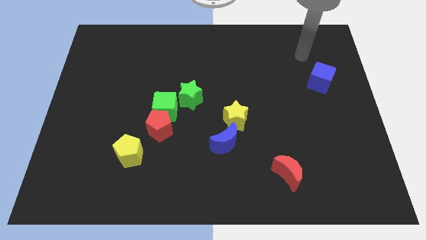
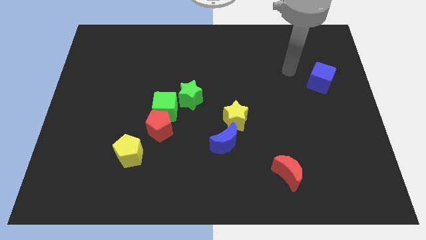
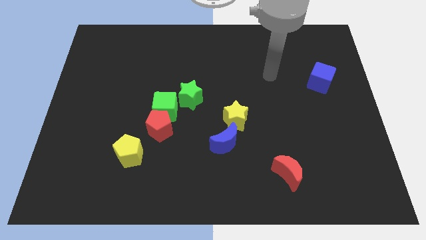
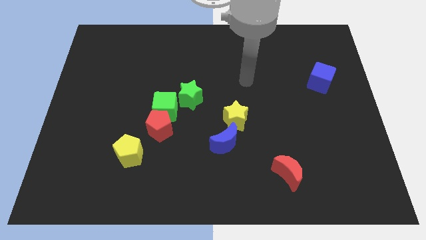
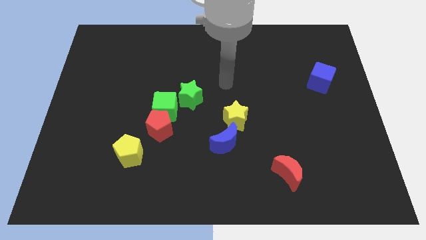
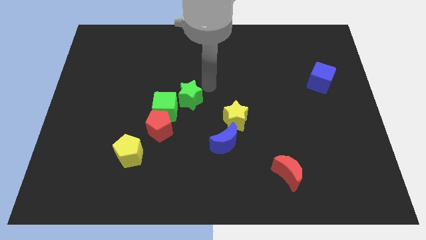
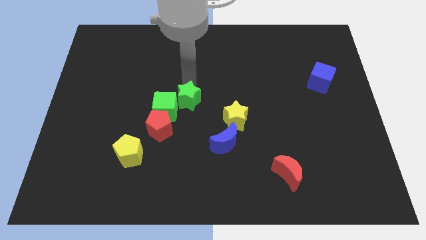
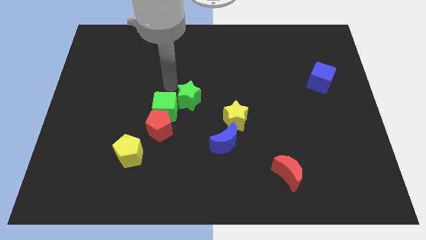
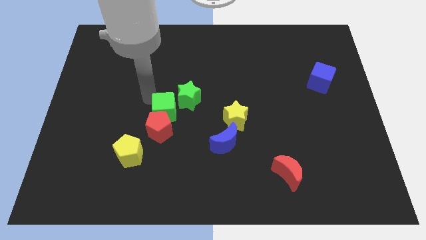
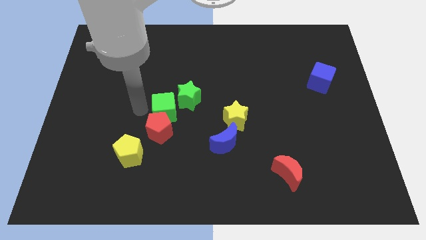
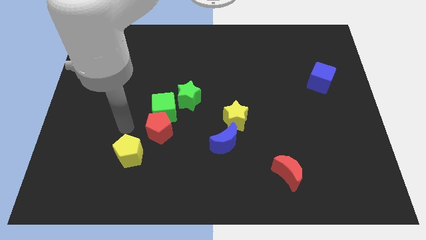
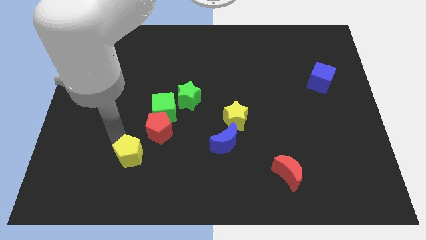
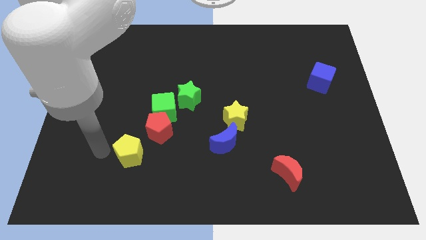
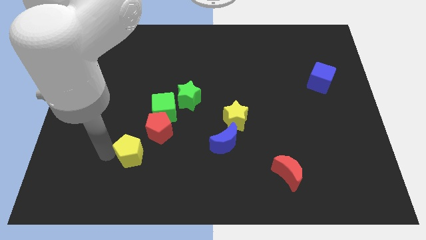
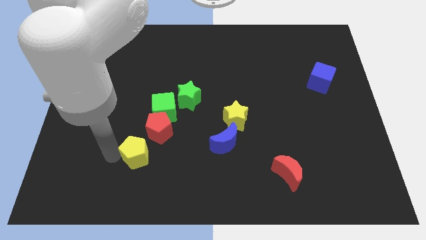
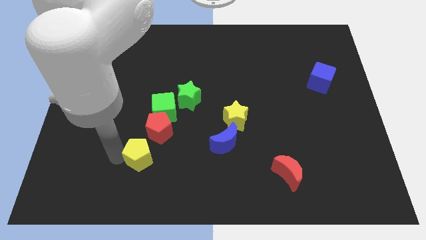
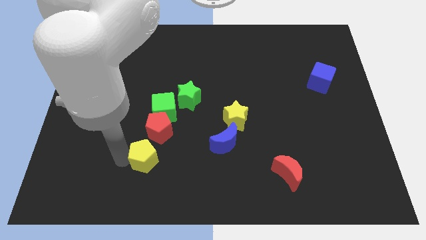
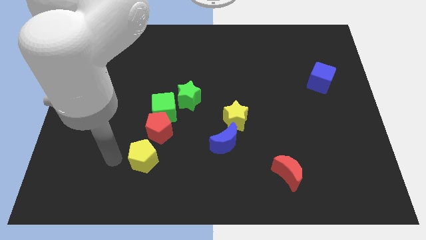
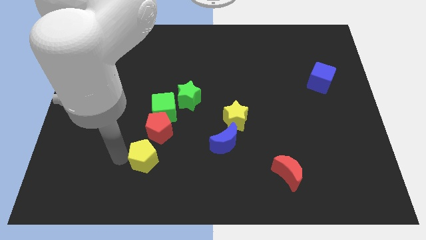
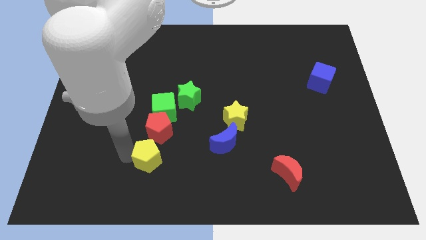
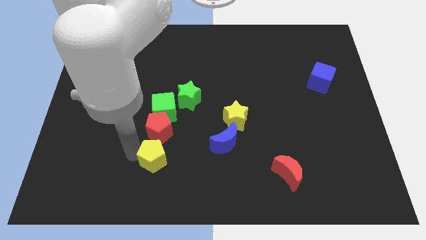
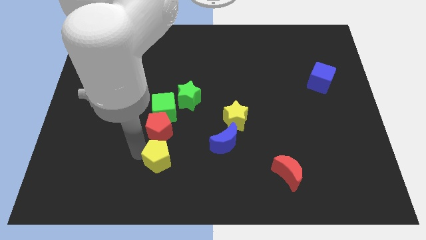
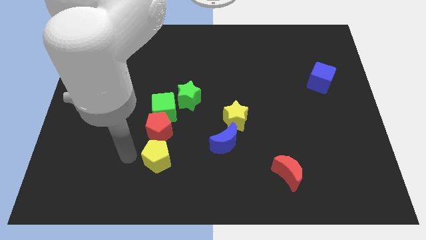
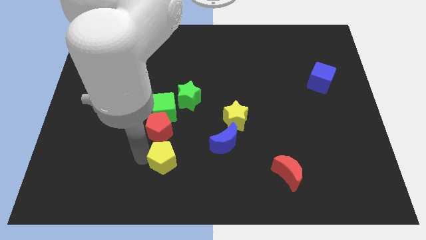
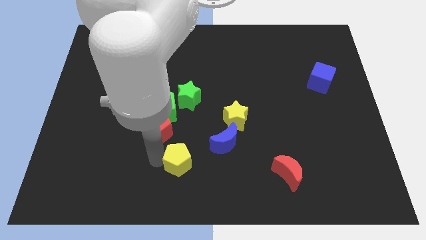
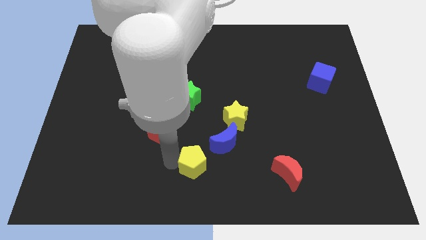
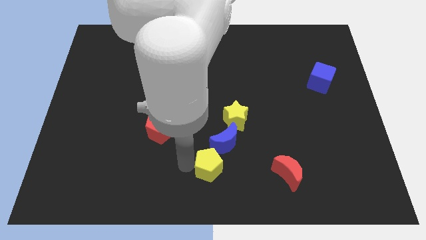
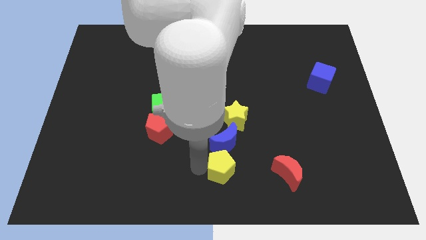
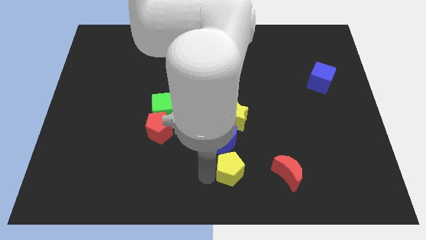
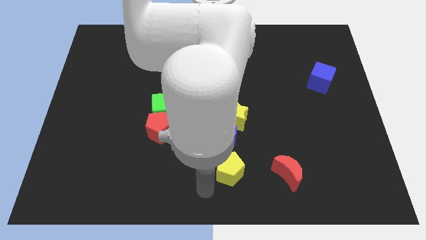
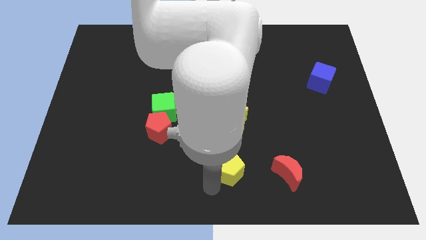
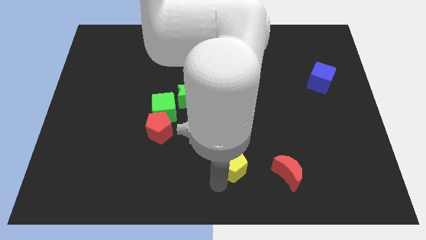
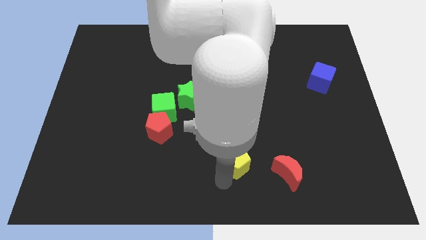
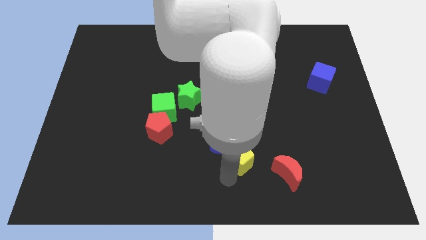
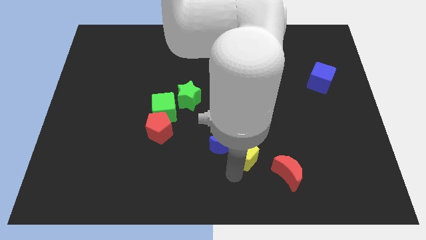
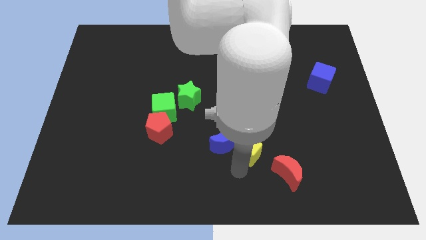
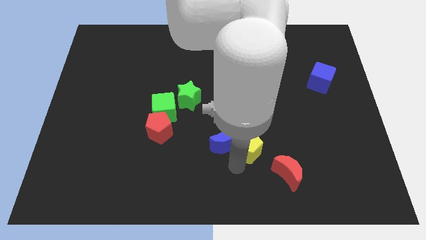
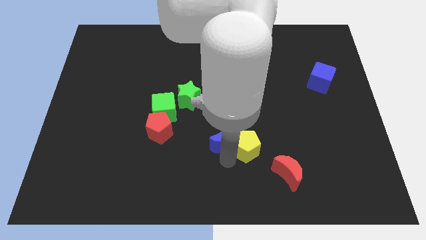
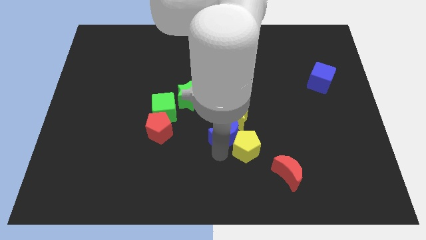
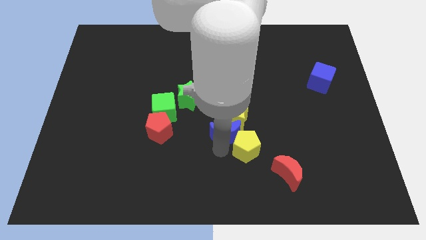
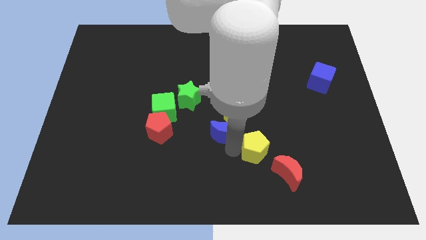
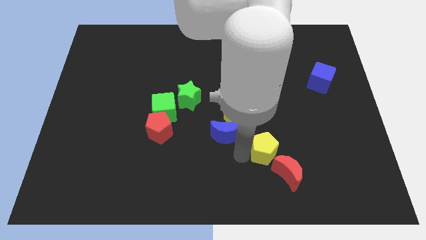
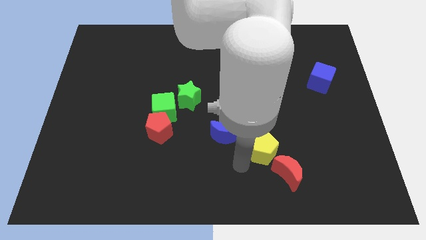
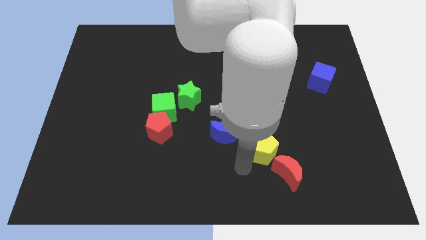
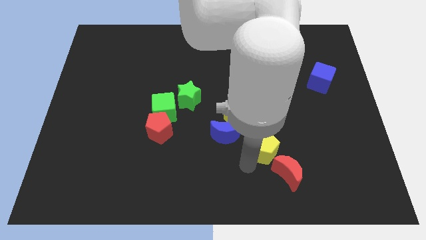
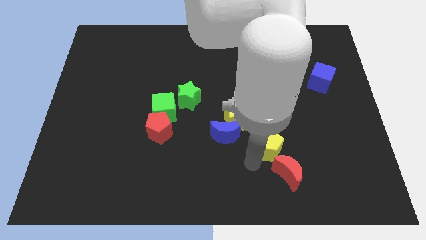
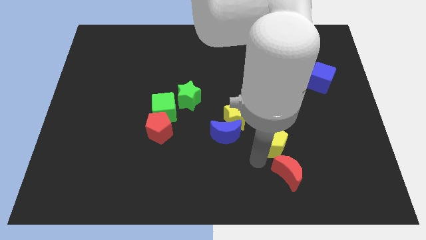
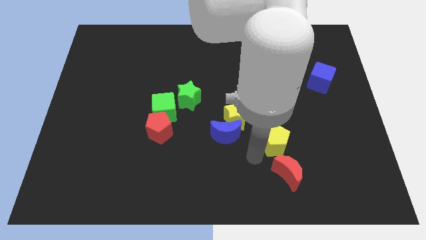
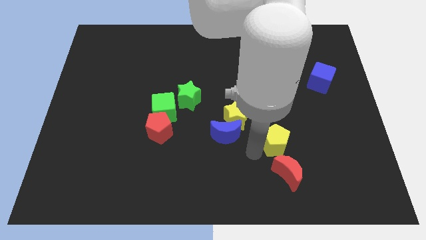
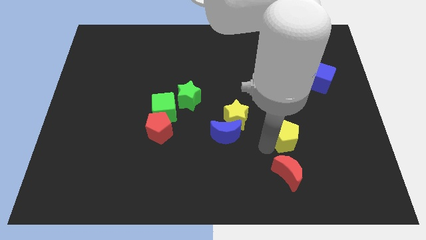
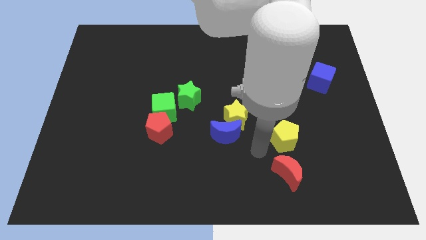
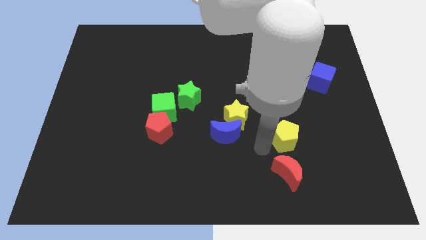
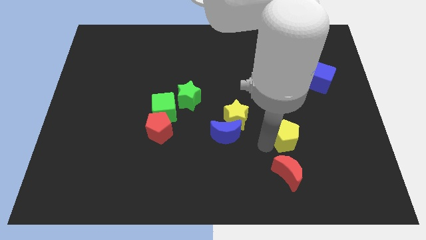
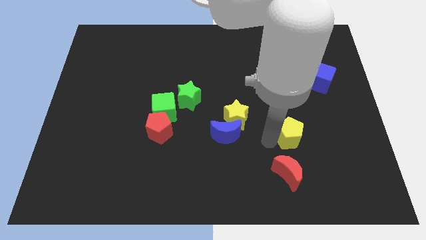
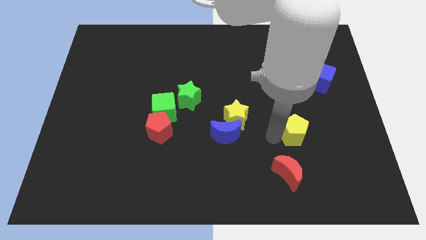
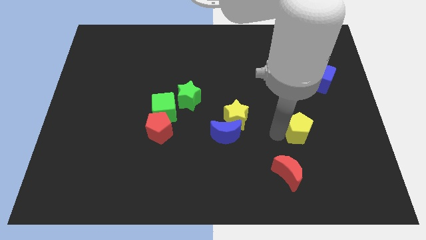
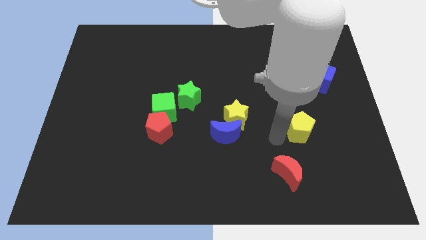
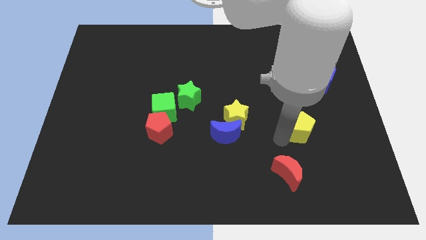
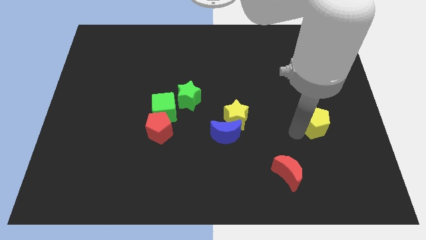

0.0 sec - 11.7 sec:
put the yellow pentagon below the blue cube

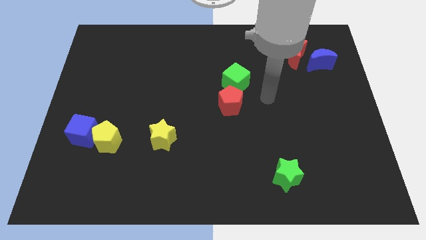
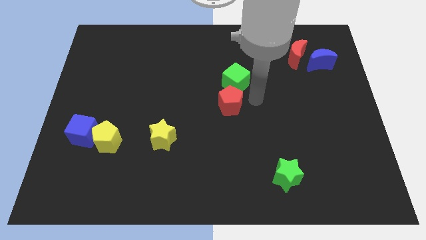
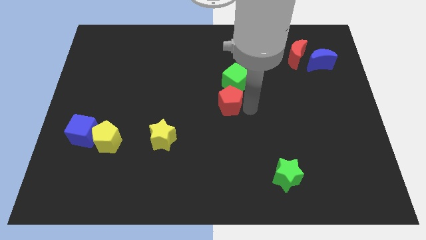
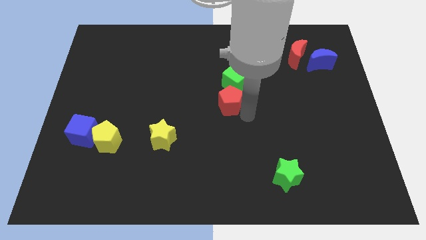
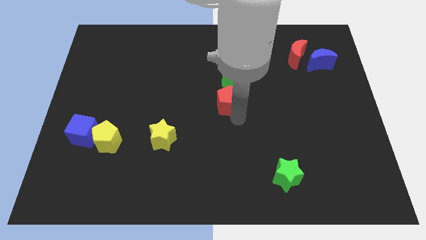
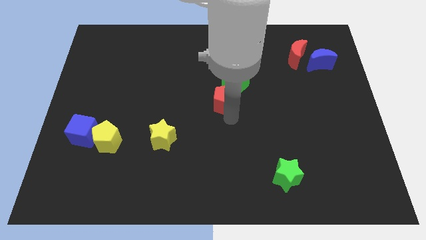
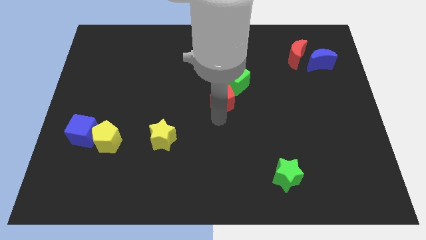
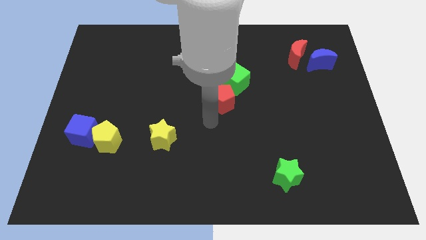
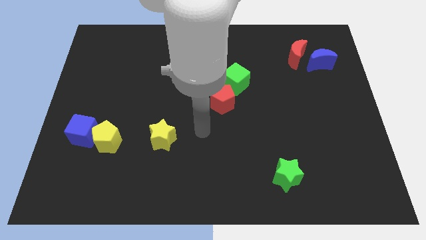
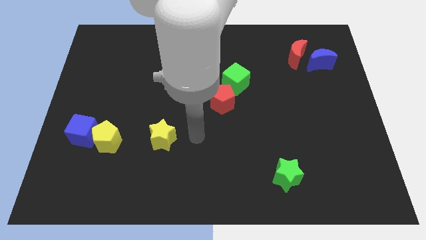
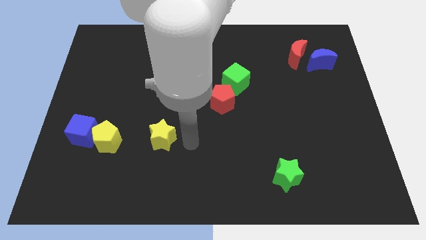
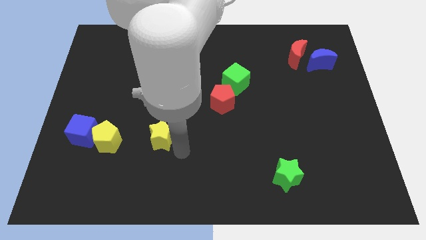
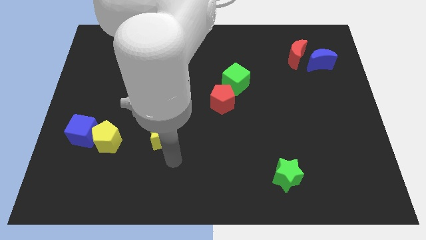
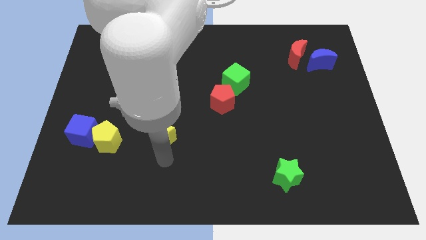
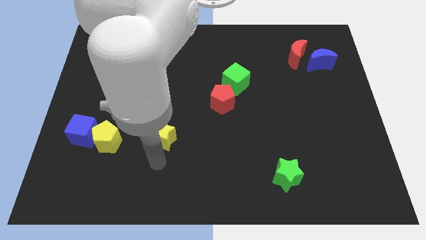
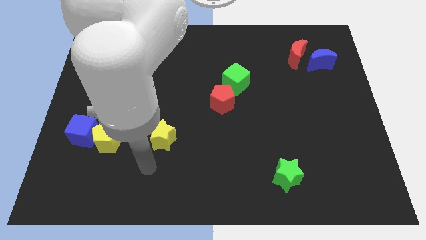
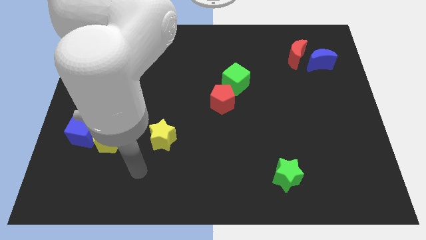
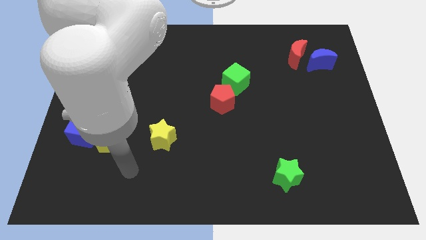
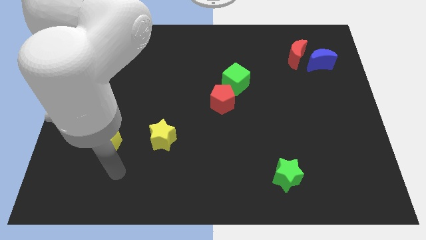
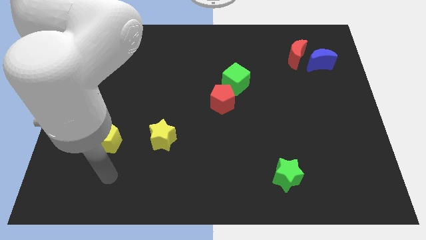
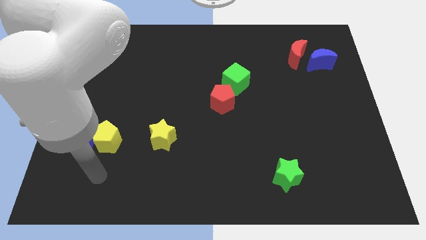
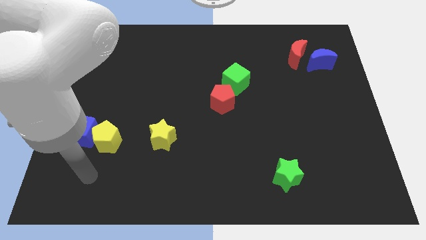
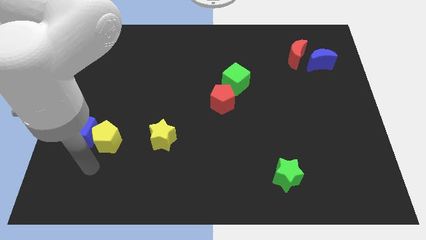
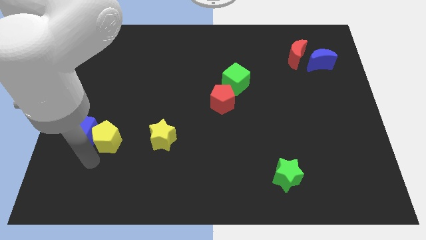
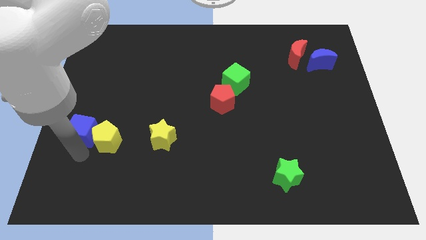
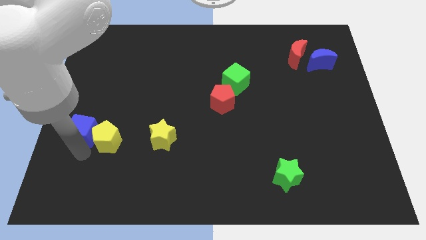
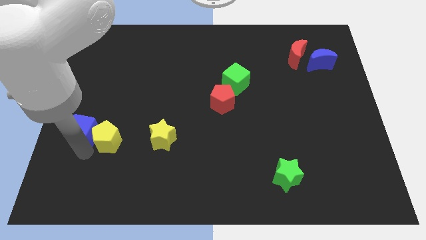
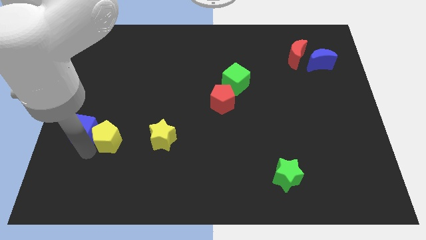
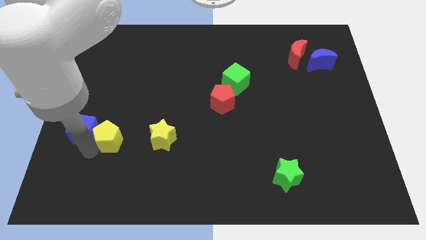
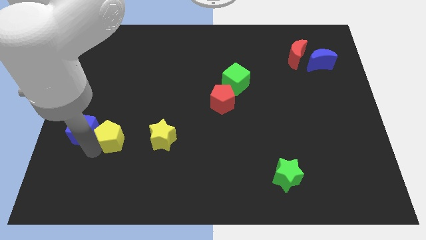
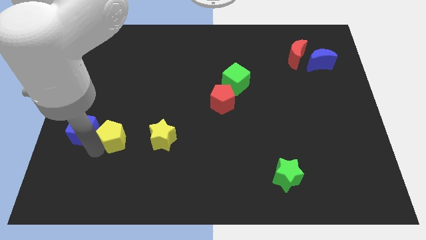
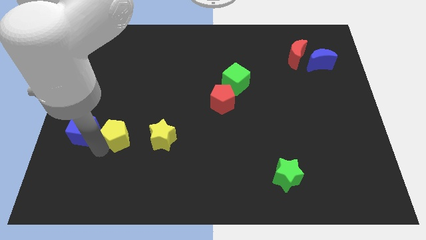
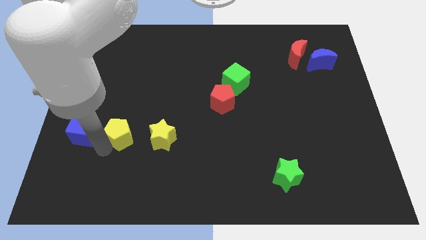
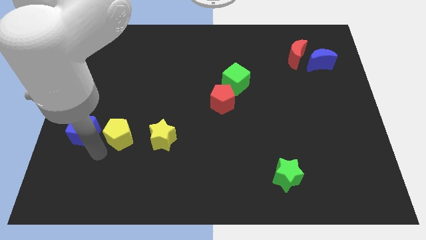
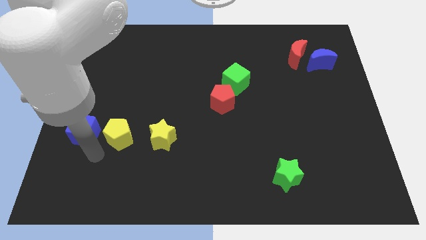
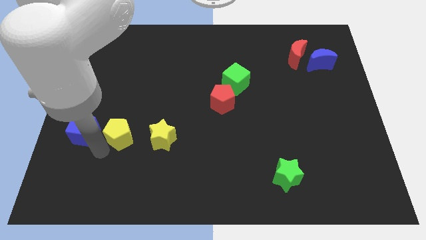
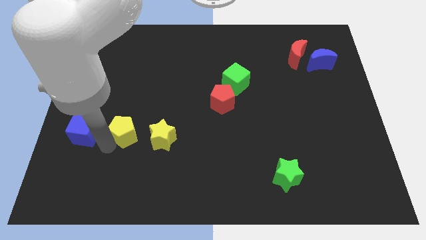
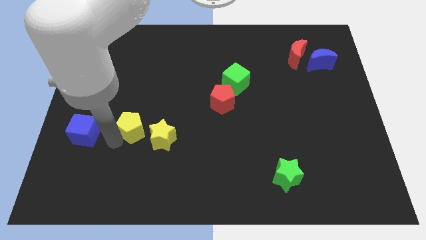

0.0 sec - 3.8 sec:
move the yellow pentagon to the top left side of the yellow star
